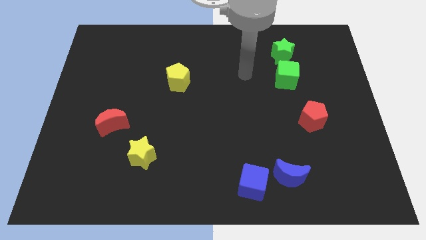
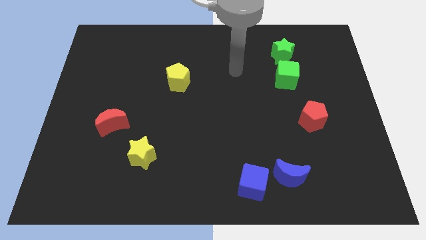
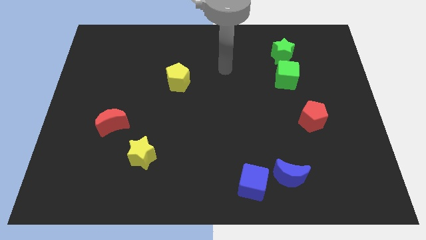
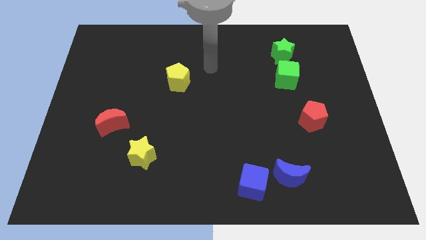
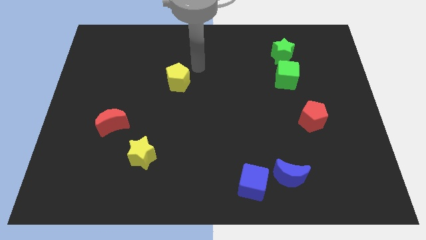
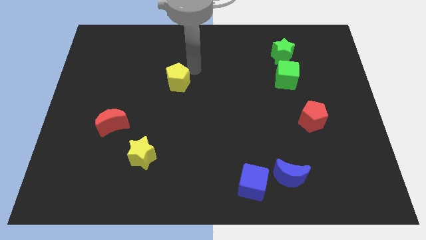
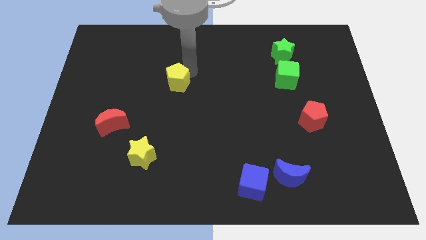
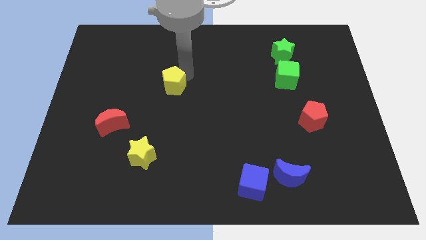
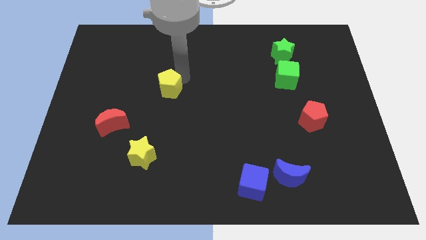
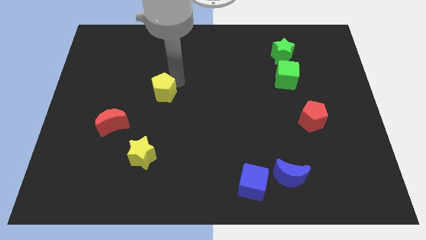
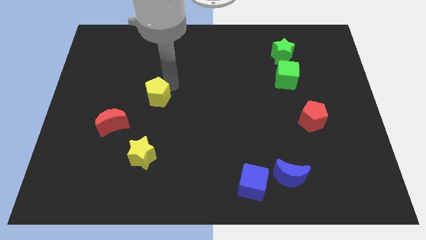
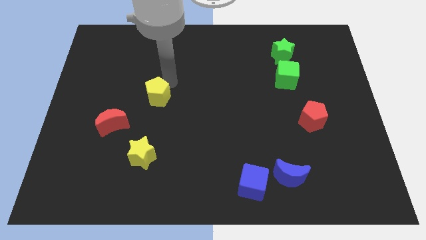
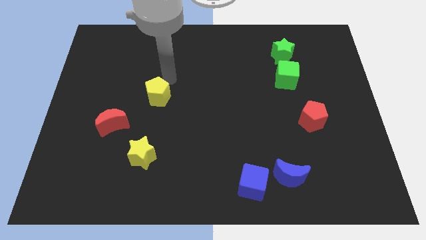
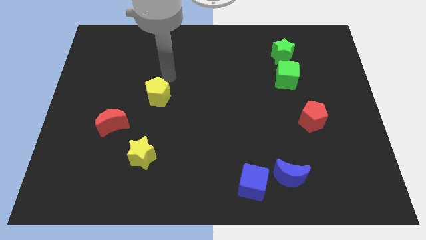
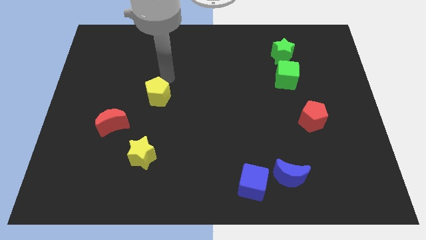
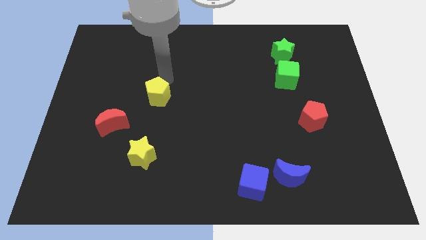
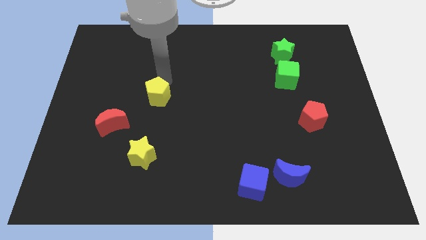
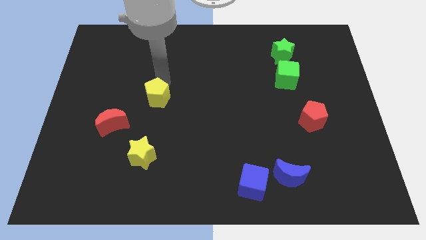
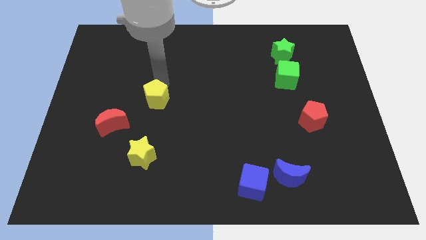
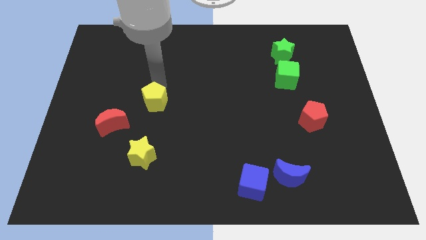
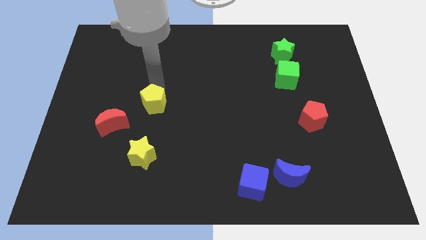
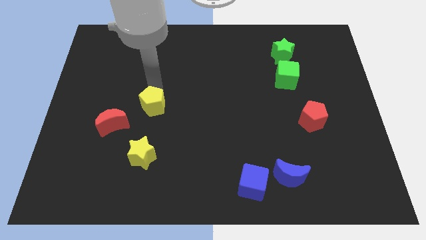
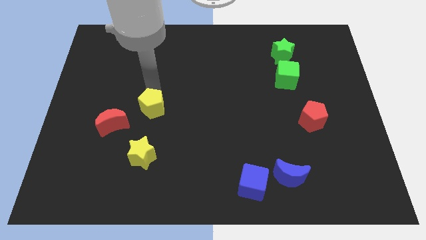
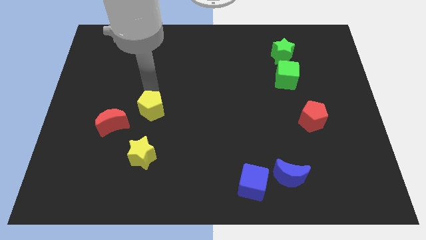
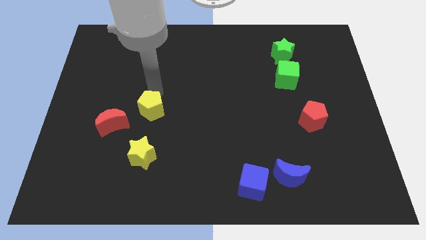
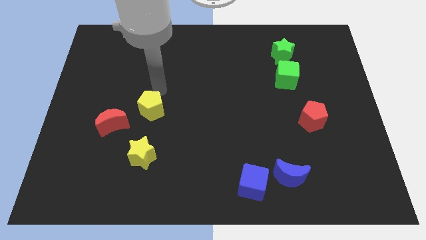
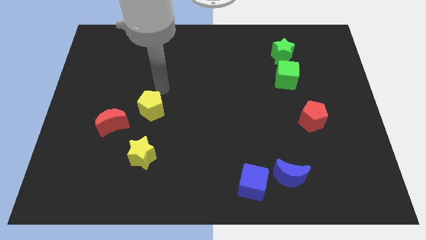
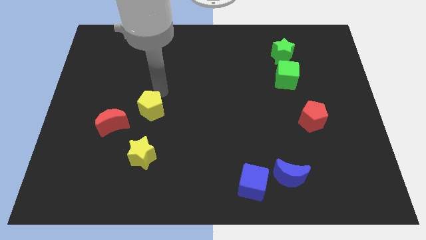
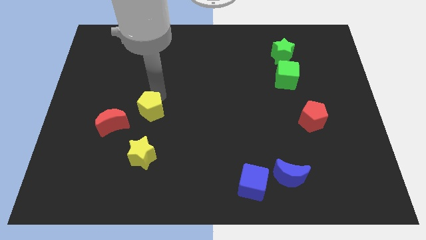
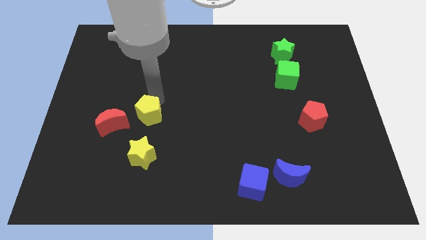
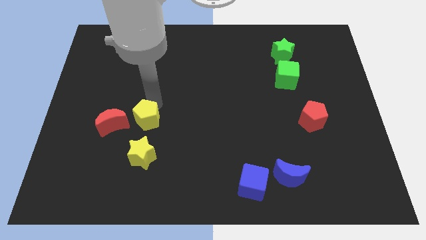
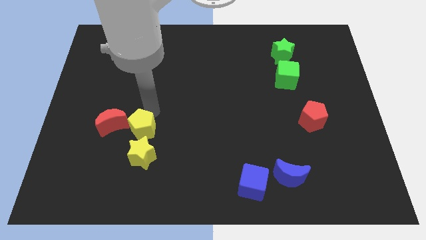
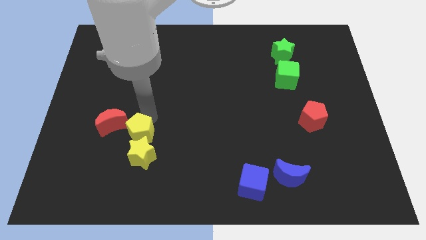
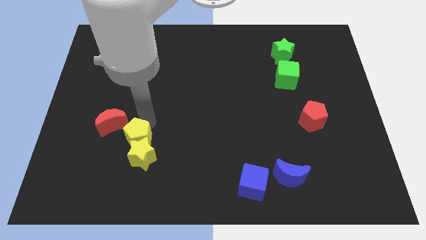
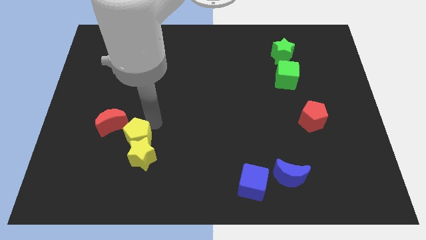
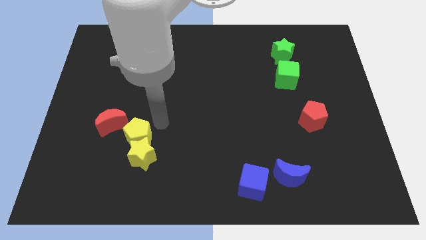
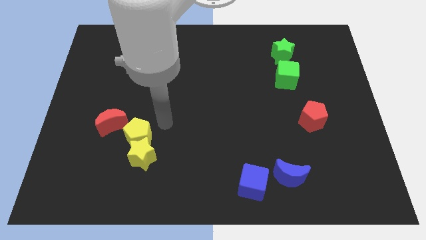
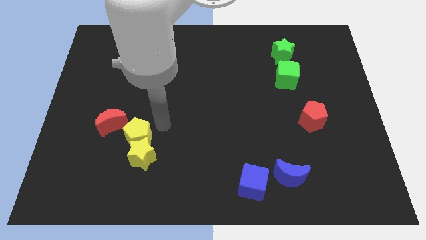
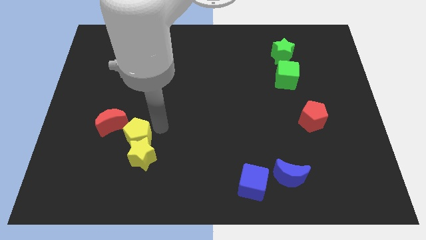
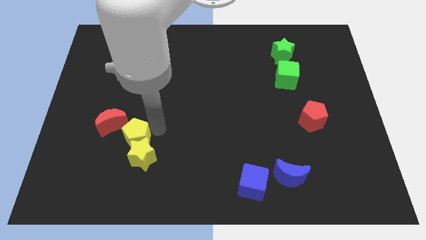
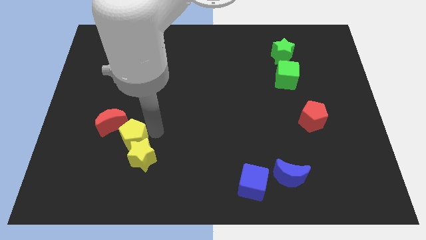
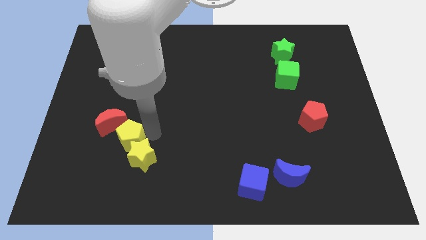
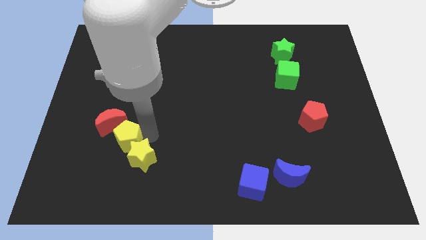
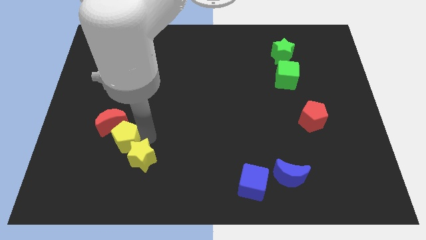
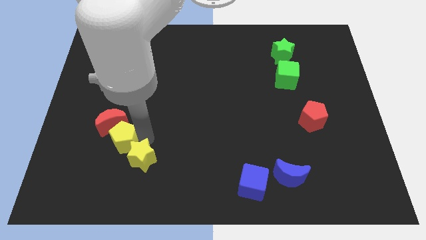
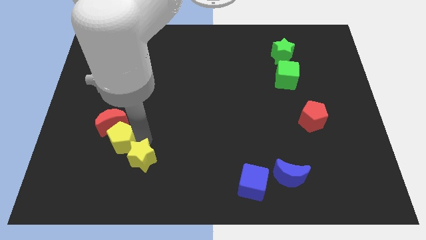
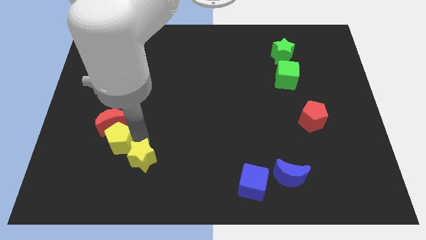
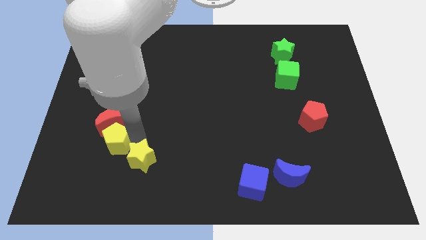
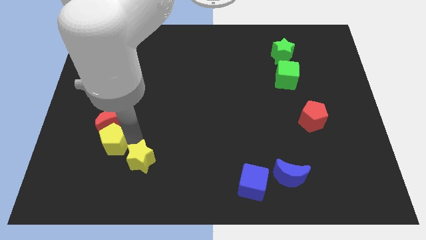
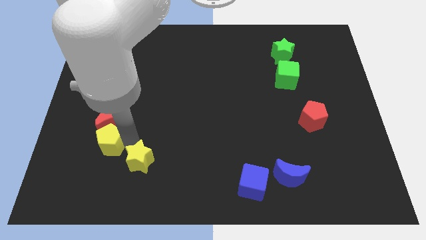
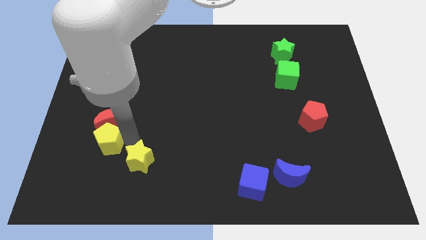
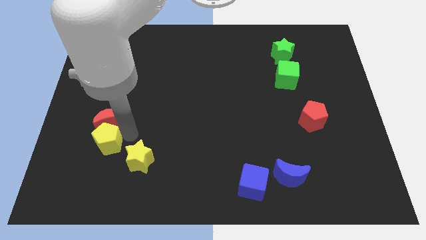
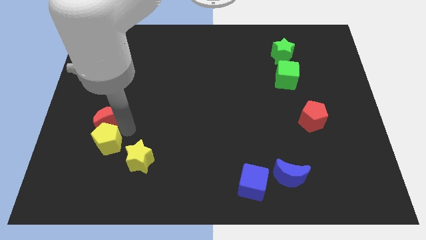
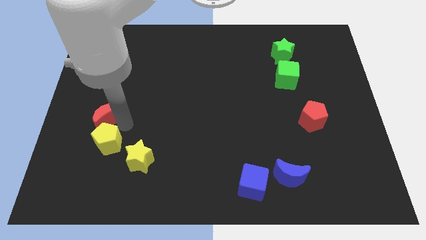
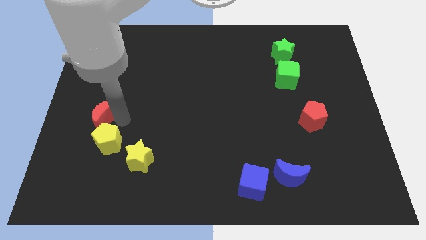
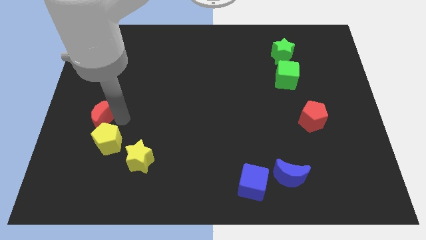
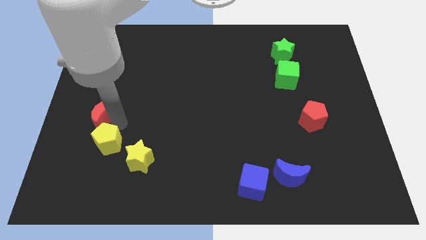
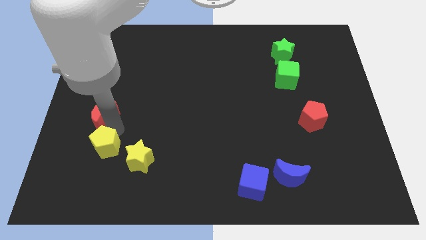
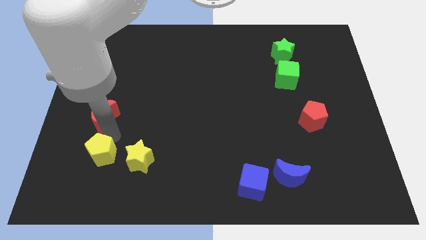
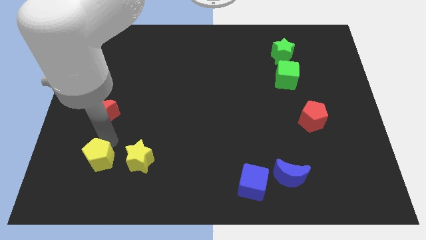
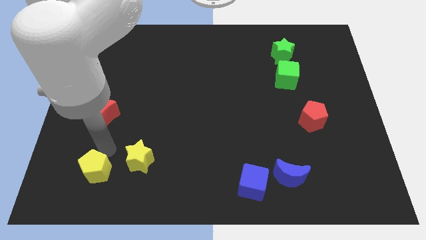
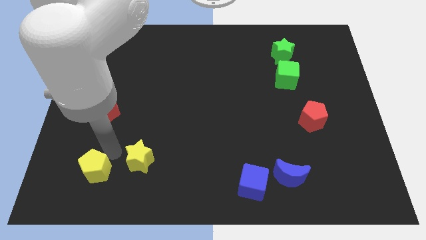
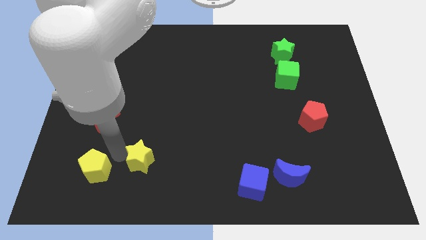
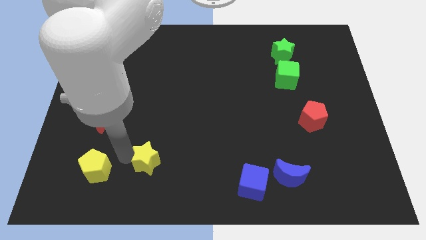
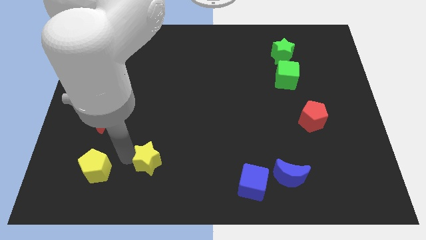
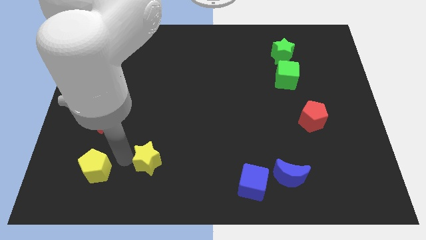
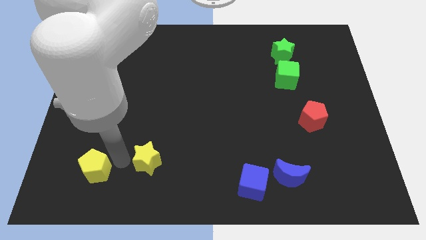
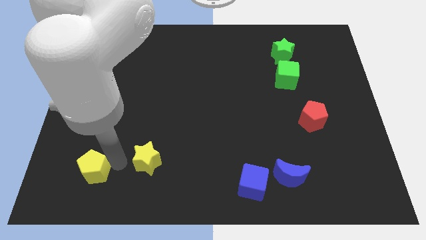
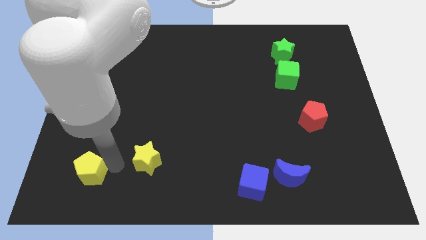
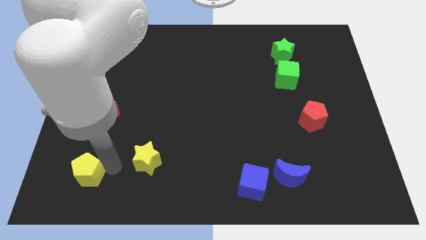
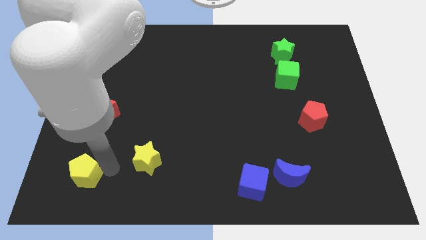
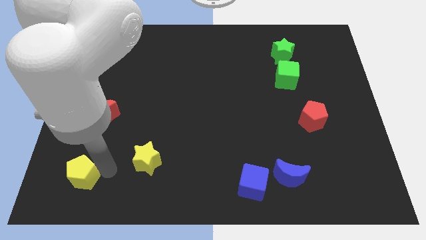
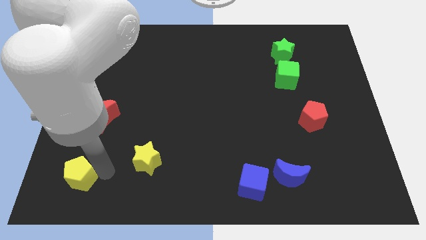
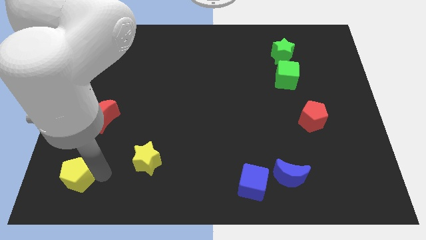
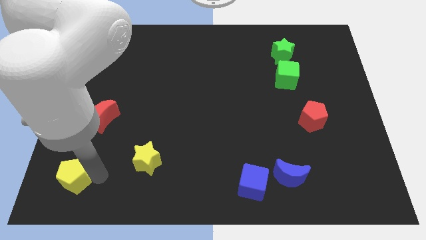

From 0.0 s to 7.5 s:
slide the yellow pentagon to the bottom left
